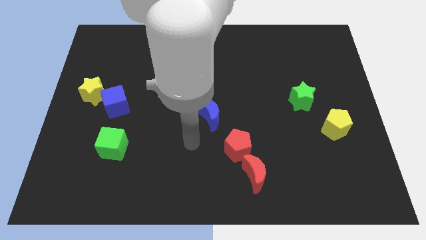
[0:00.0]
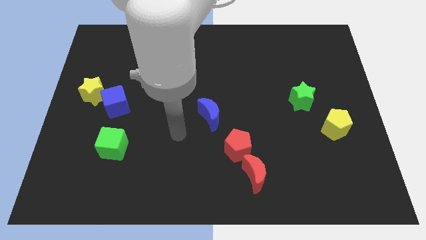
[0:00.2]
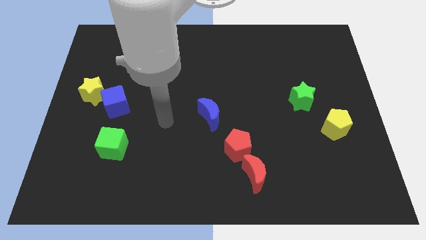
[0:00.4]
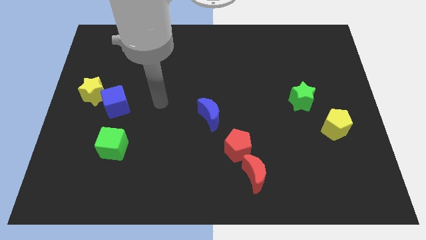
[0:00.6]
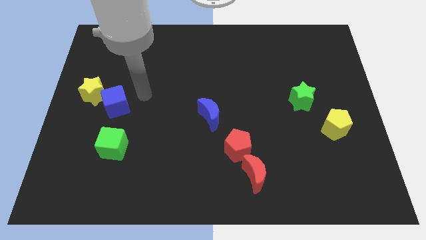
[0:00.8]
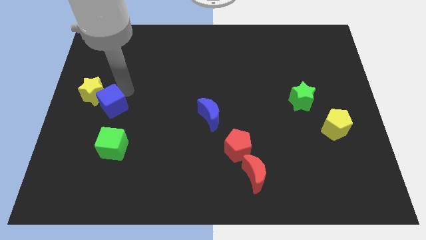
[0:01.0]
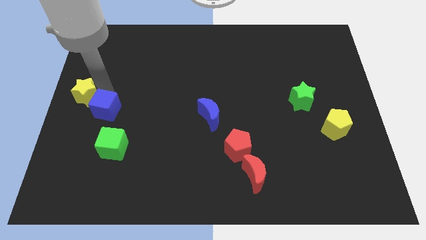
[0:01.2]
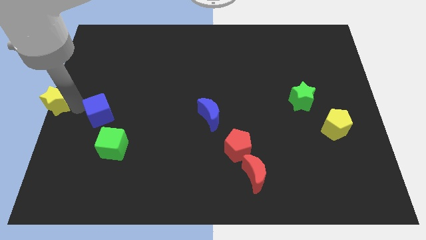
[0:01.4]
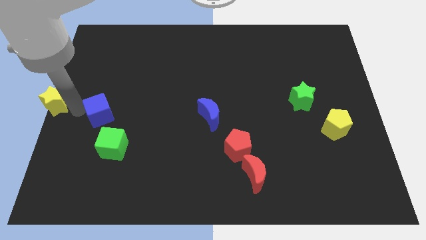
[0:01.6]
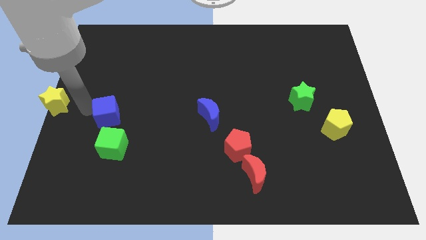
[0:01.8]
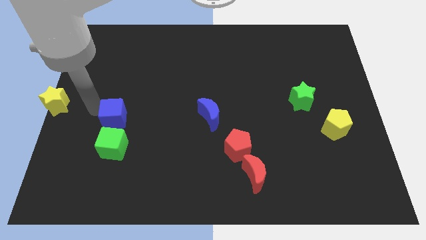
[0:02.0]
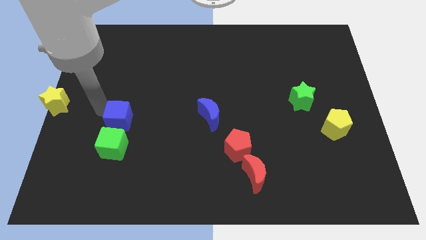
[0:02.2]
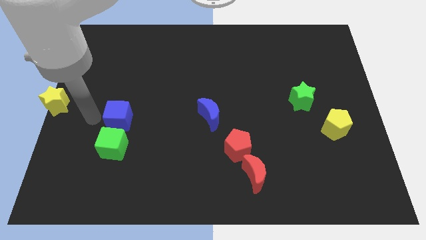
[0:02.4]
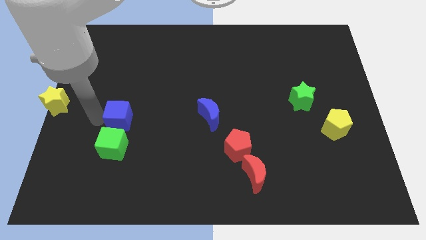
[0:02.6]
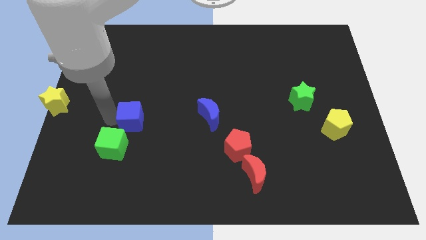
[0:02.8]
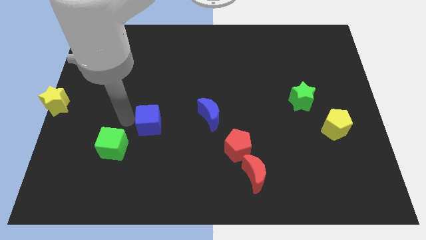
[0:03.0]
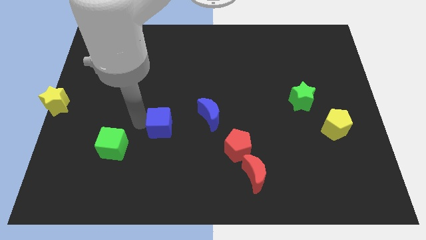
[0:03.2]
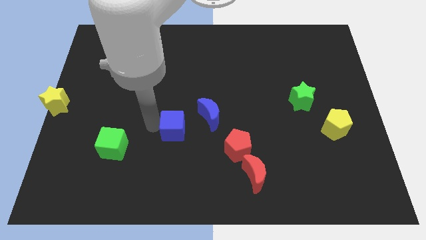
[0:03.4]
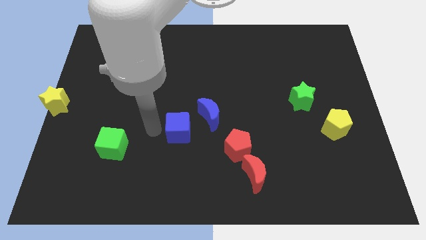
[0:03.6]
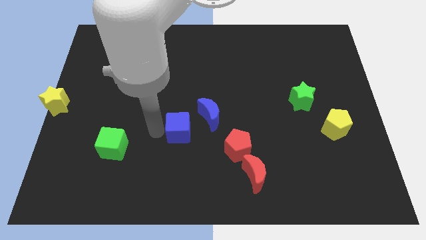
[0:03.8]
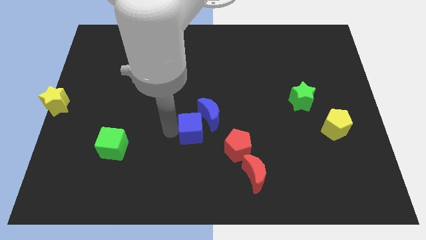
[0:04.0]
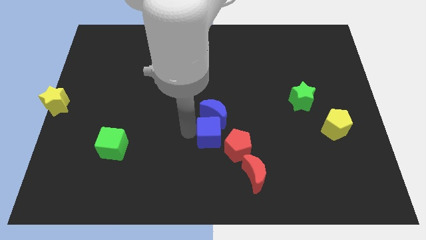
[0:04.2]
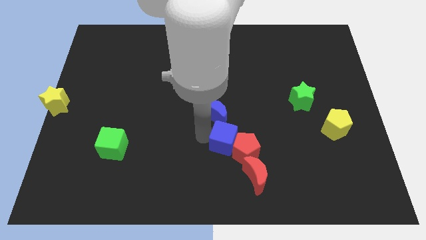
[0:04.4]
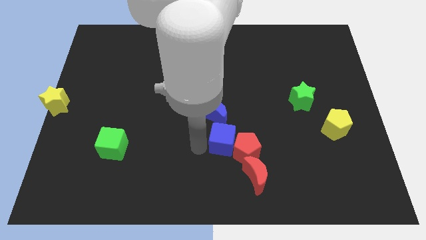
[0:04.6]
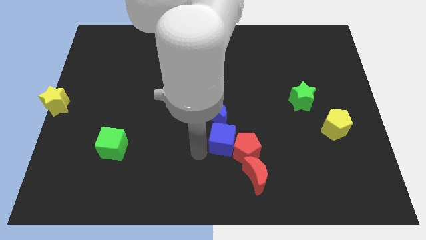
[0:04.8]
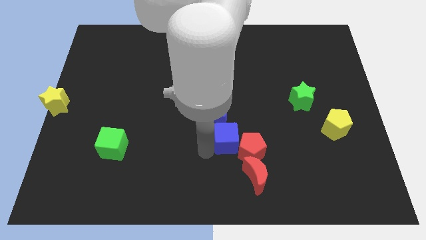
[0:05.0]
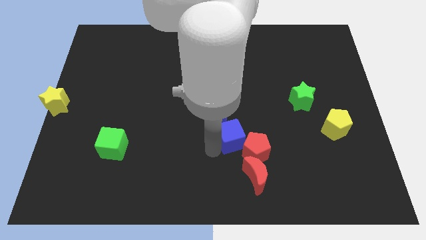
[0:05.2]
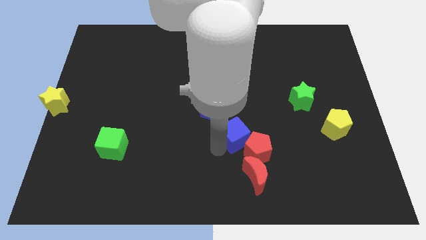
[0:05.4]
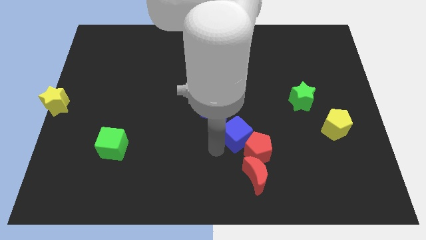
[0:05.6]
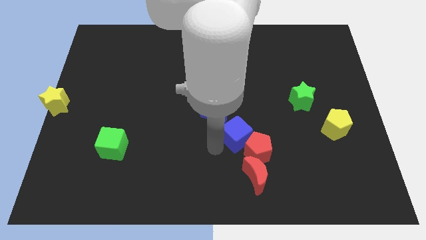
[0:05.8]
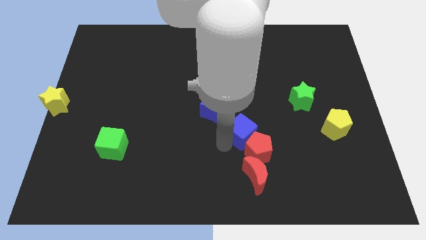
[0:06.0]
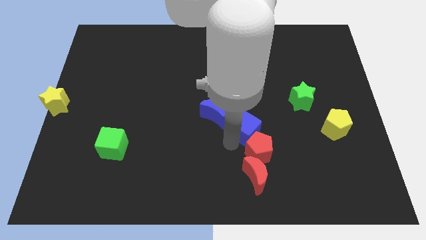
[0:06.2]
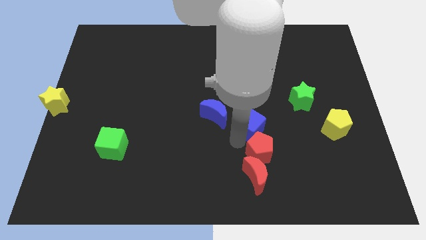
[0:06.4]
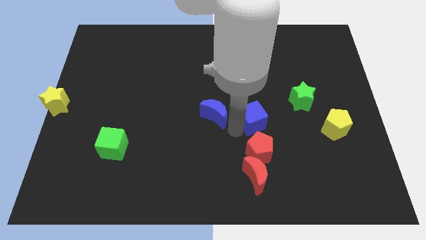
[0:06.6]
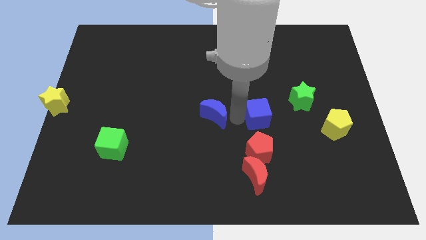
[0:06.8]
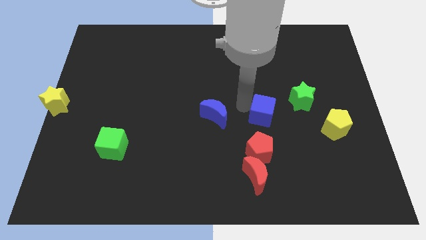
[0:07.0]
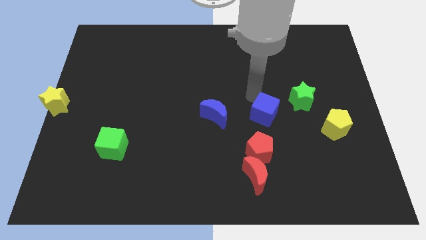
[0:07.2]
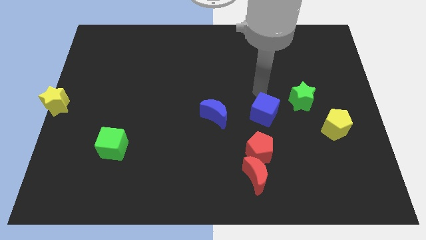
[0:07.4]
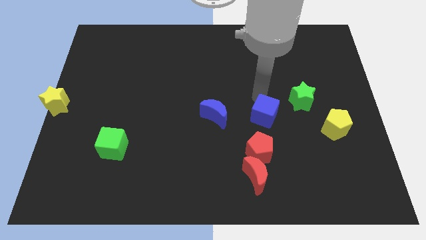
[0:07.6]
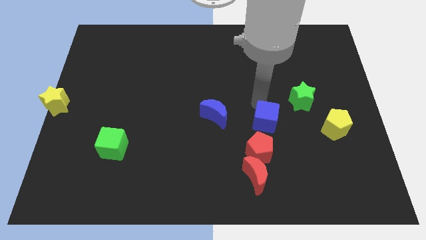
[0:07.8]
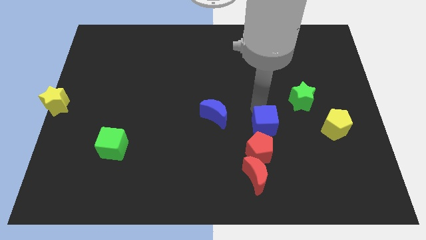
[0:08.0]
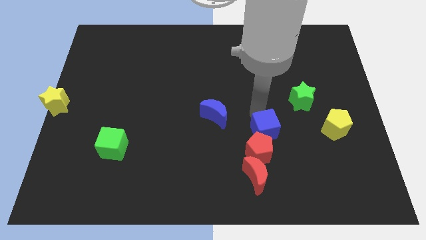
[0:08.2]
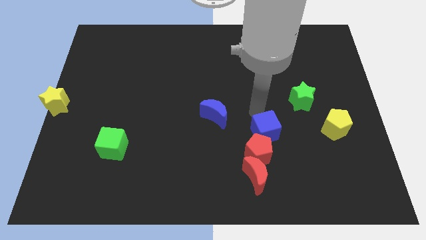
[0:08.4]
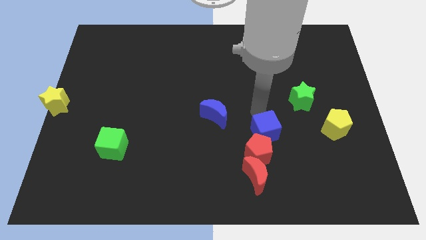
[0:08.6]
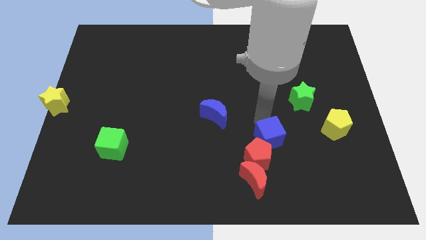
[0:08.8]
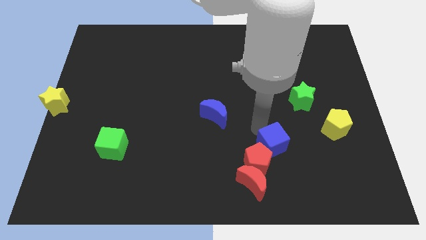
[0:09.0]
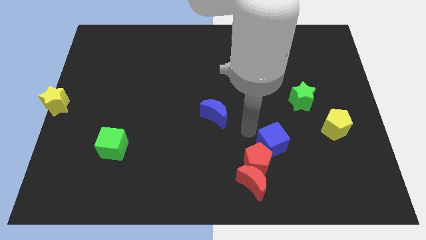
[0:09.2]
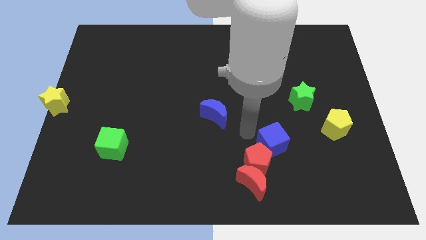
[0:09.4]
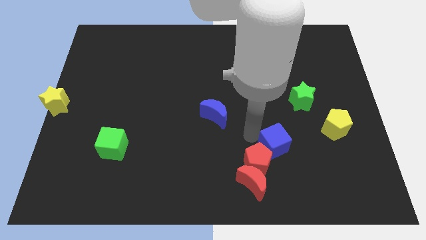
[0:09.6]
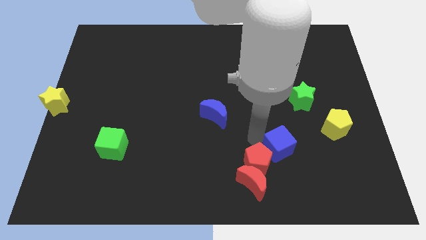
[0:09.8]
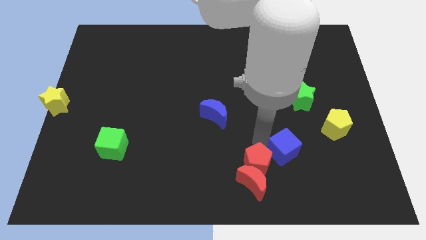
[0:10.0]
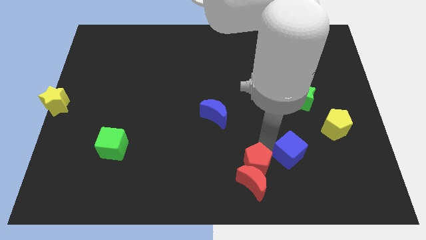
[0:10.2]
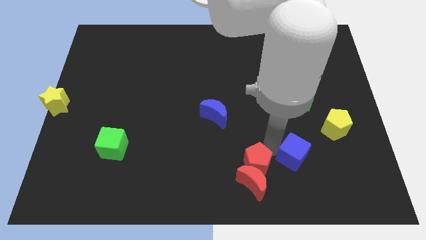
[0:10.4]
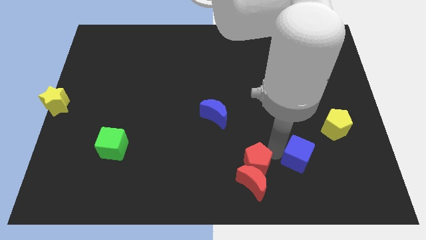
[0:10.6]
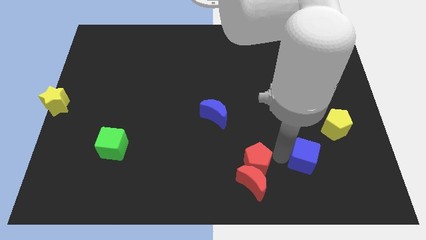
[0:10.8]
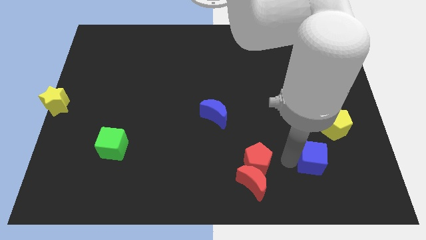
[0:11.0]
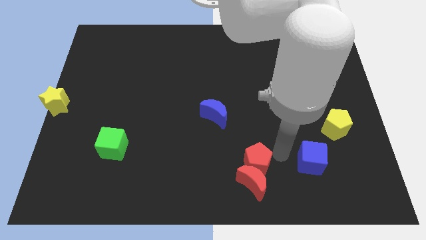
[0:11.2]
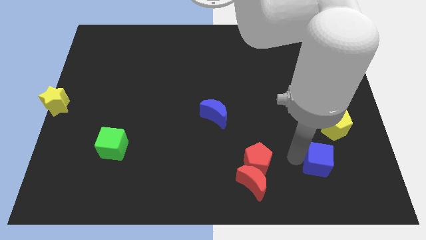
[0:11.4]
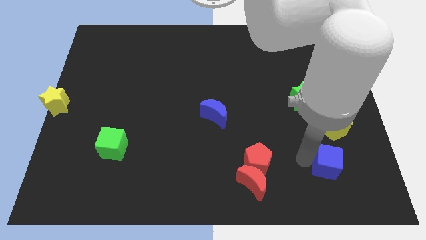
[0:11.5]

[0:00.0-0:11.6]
slide the blue cube below the yellow pentagon
